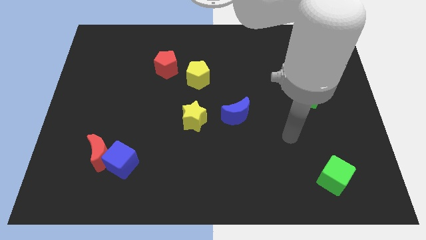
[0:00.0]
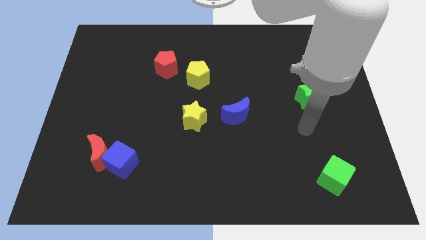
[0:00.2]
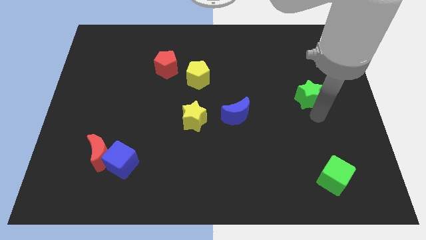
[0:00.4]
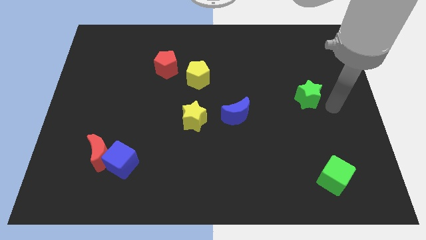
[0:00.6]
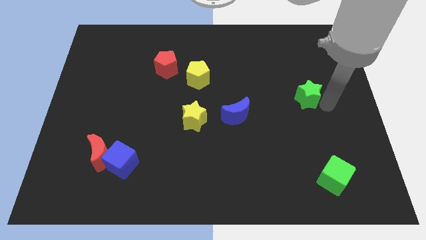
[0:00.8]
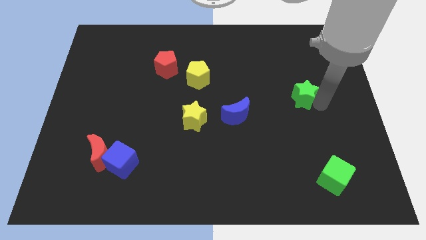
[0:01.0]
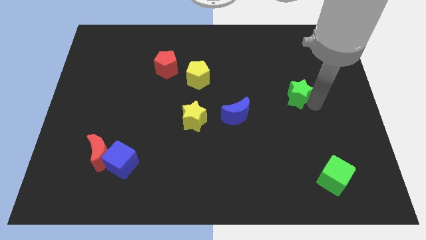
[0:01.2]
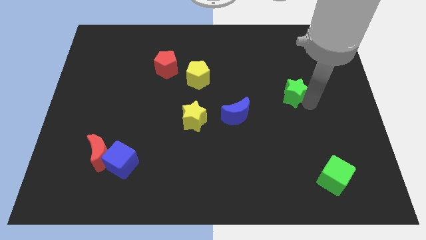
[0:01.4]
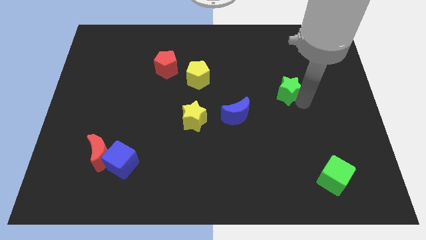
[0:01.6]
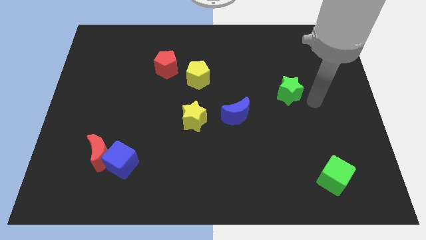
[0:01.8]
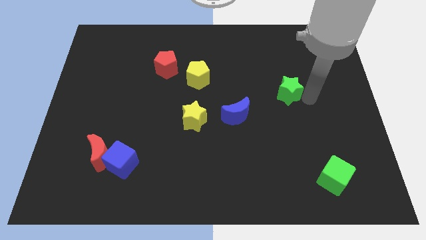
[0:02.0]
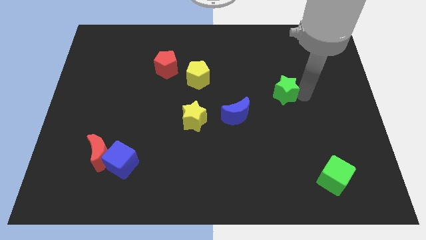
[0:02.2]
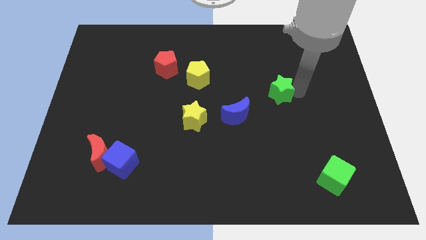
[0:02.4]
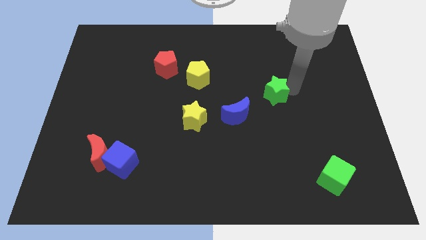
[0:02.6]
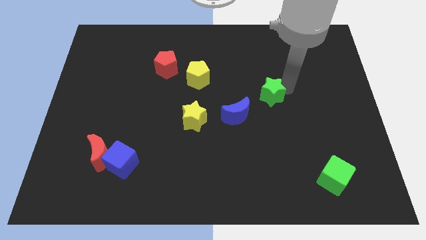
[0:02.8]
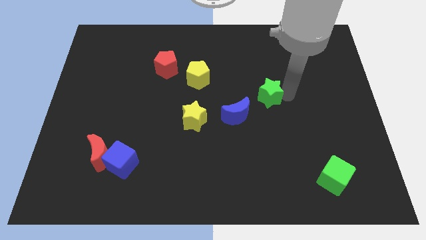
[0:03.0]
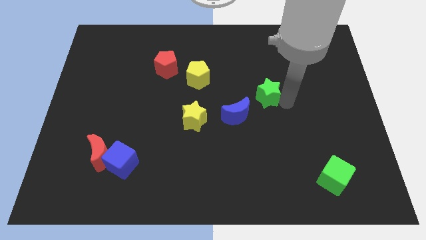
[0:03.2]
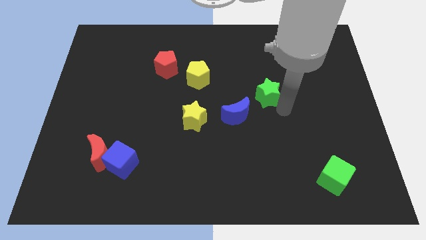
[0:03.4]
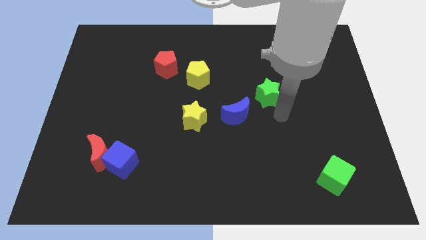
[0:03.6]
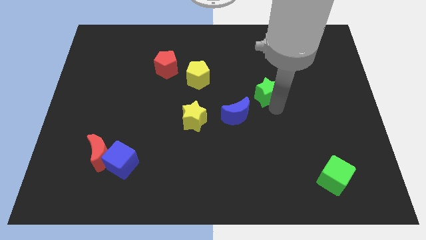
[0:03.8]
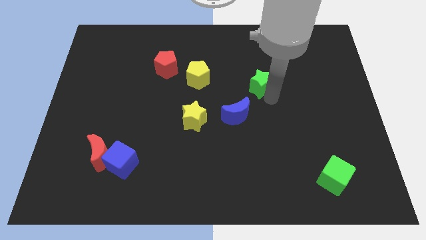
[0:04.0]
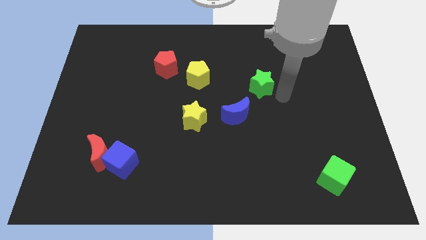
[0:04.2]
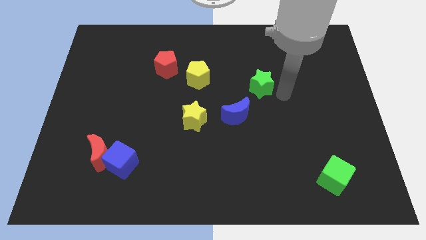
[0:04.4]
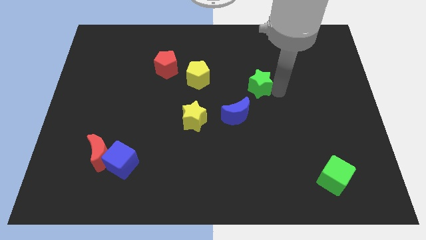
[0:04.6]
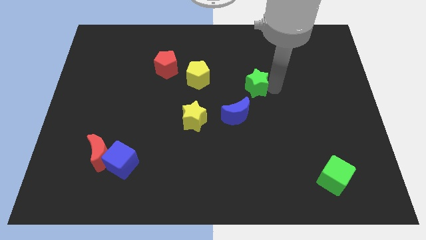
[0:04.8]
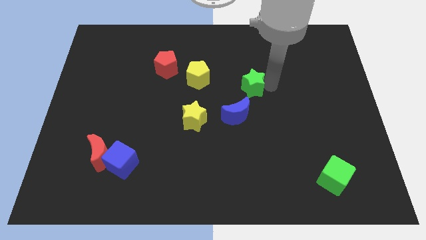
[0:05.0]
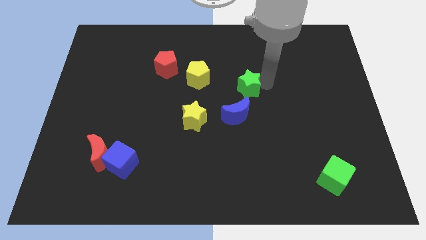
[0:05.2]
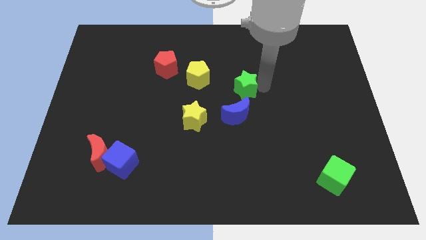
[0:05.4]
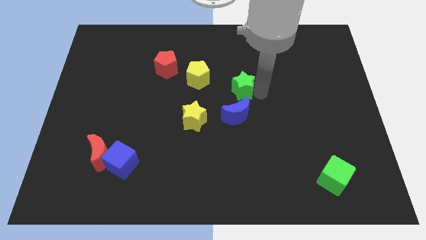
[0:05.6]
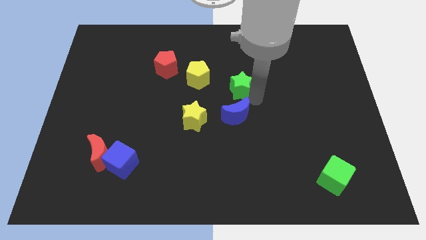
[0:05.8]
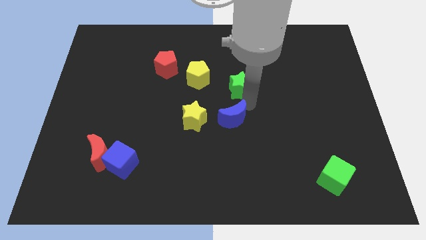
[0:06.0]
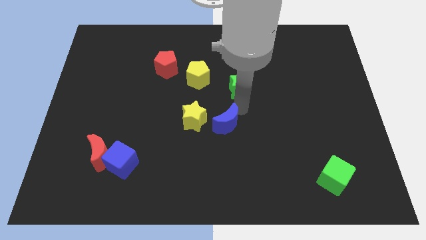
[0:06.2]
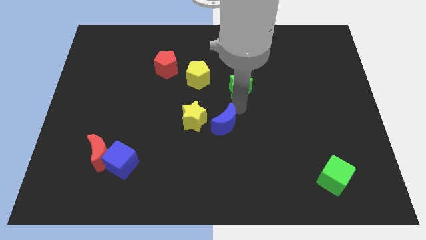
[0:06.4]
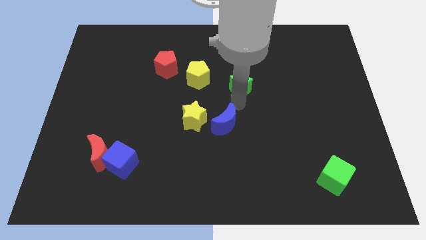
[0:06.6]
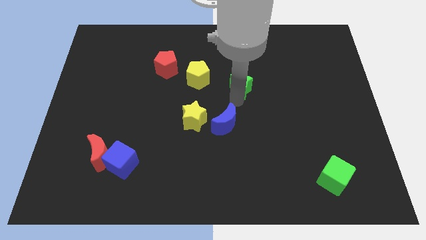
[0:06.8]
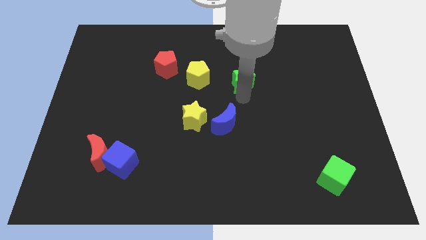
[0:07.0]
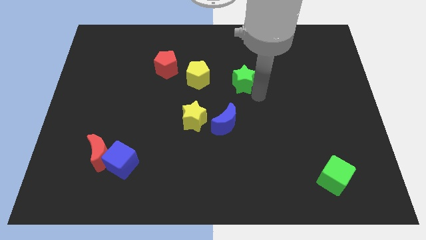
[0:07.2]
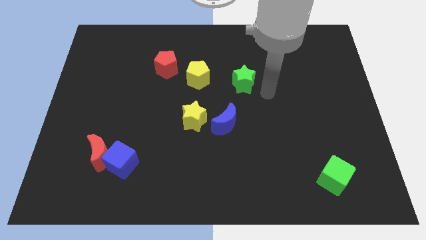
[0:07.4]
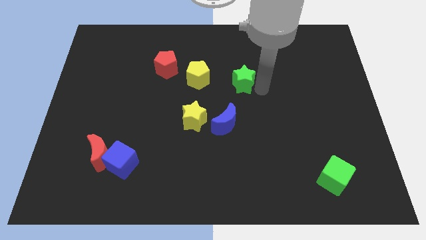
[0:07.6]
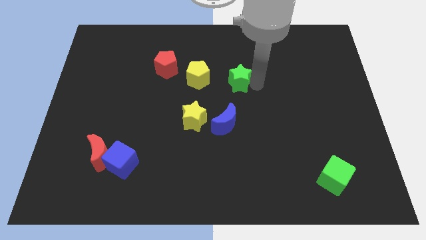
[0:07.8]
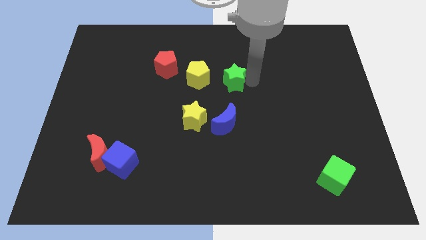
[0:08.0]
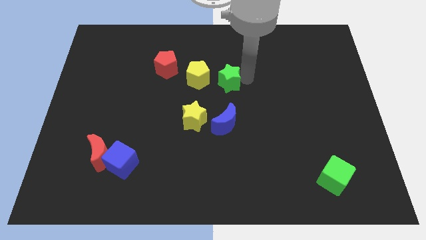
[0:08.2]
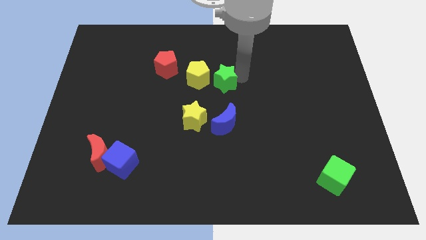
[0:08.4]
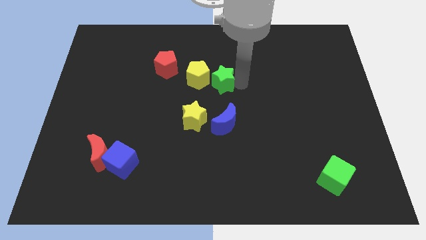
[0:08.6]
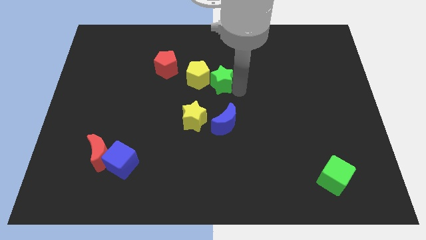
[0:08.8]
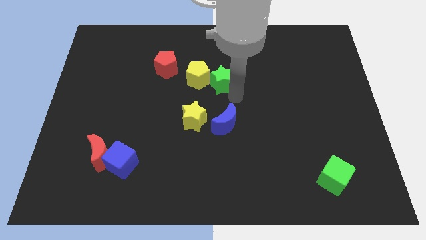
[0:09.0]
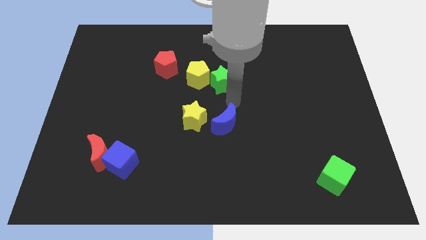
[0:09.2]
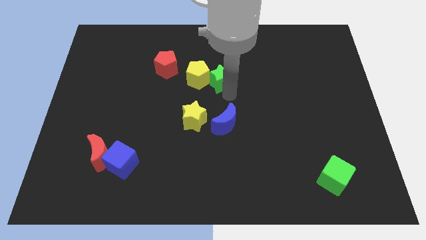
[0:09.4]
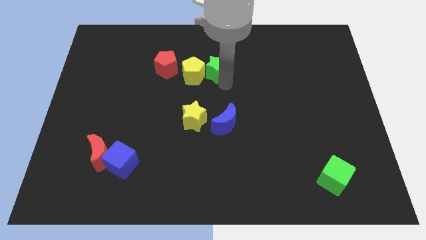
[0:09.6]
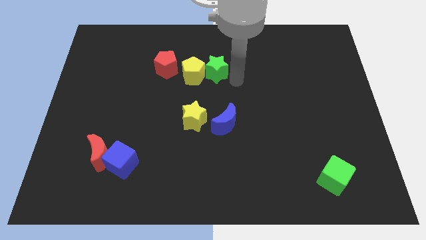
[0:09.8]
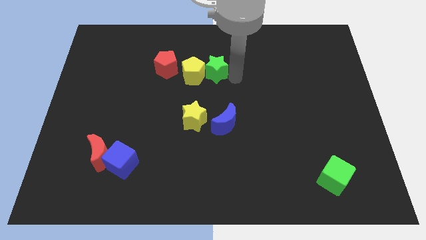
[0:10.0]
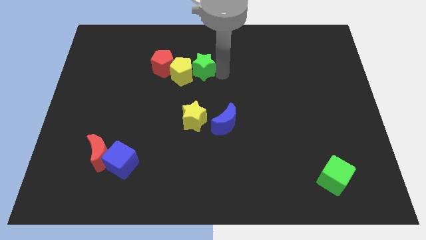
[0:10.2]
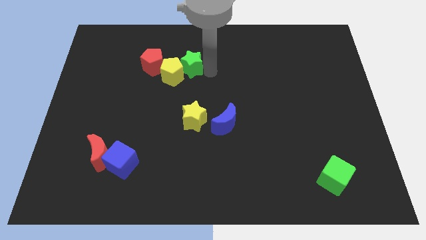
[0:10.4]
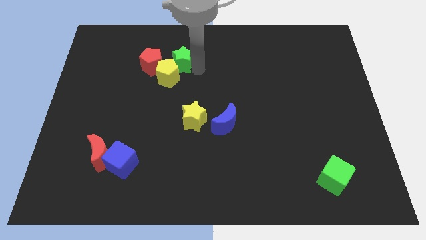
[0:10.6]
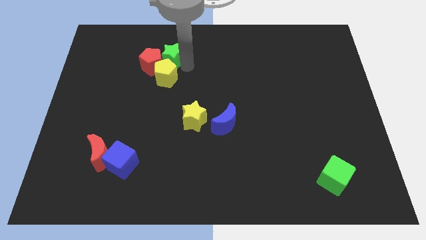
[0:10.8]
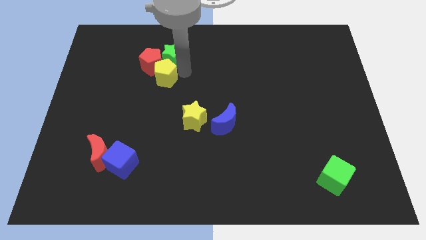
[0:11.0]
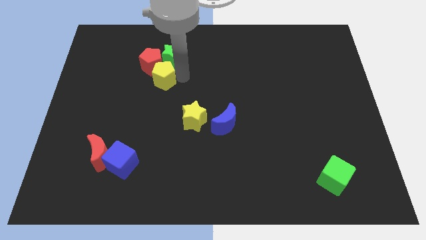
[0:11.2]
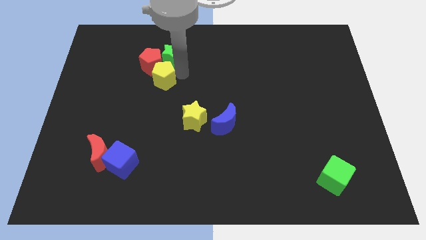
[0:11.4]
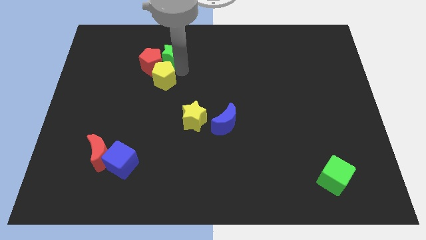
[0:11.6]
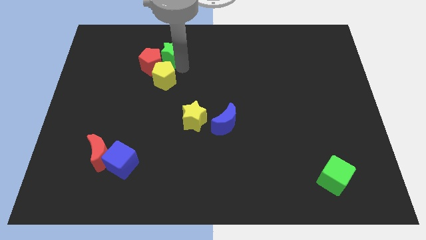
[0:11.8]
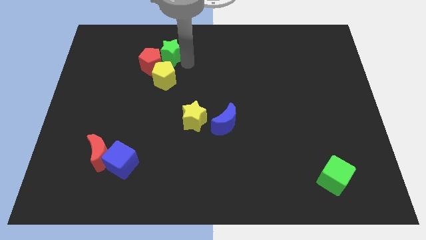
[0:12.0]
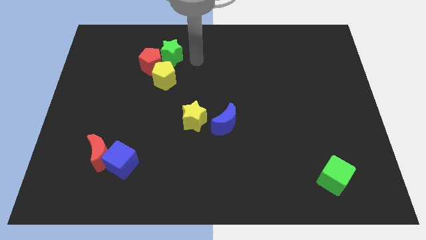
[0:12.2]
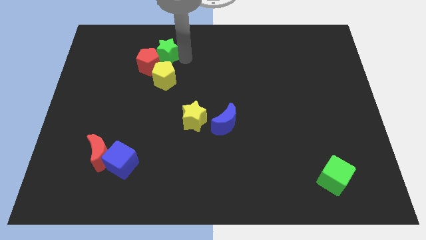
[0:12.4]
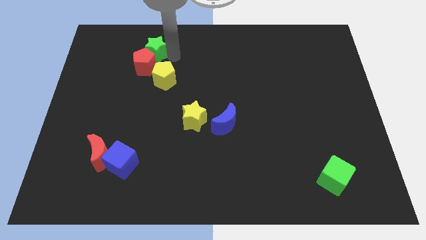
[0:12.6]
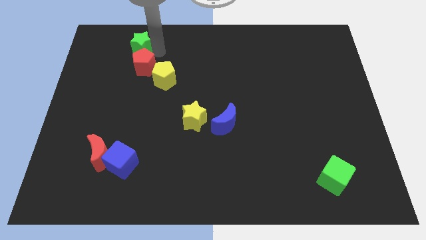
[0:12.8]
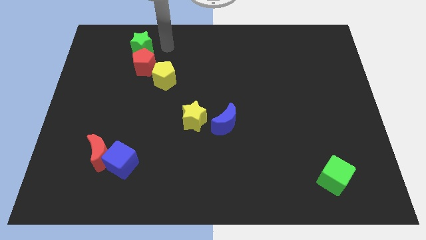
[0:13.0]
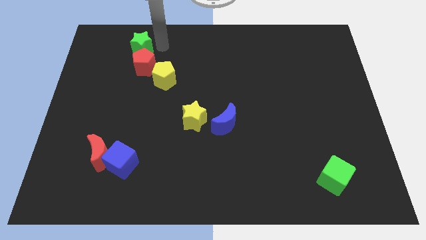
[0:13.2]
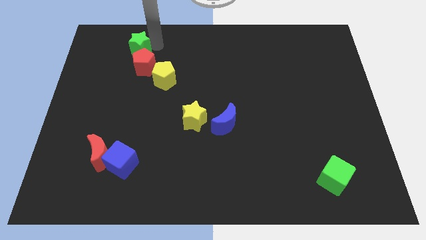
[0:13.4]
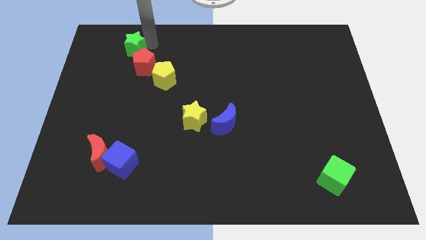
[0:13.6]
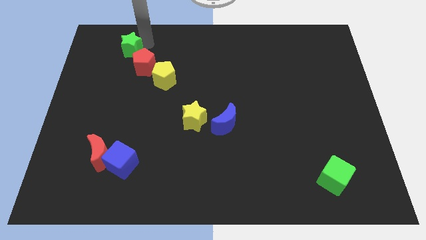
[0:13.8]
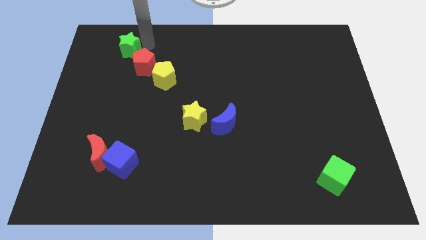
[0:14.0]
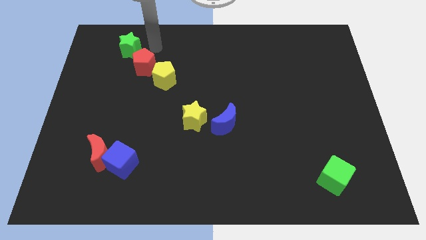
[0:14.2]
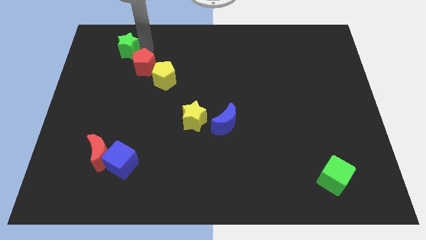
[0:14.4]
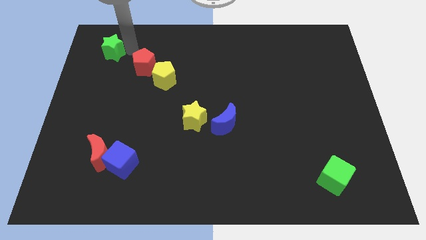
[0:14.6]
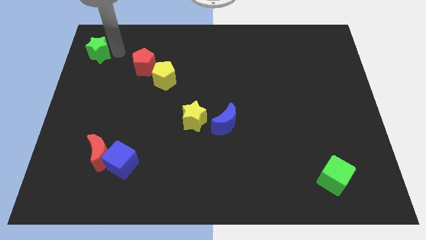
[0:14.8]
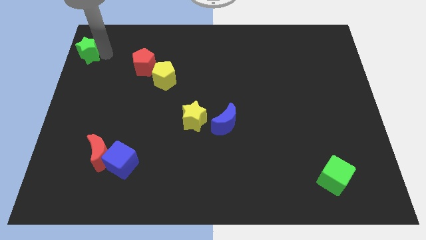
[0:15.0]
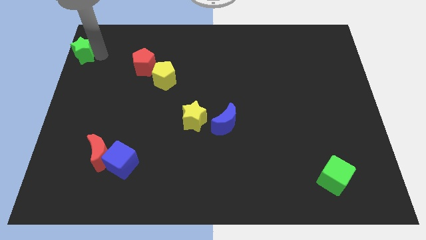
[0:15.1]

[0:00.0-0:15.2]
put the green star to the top left corner
